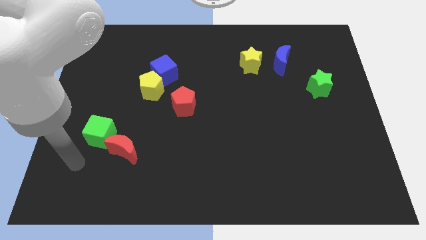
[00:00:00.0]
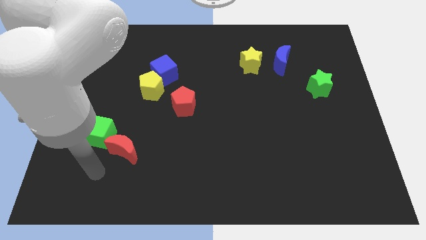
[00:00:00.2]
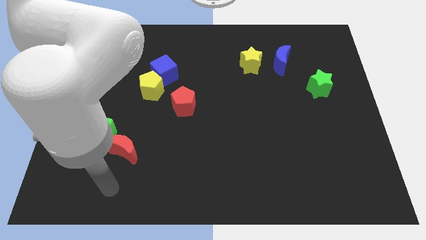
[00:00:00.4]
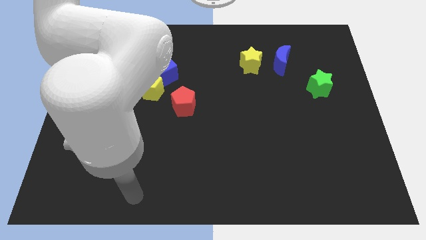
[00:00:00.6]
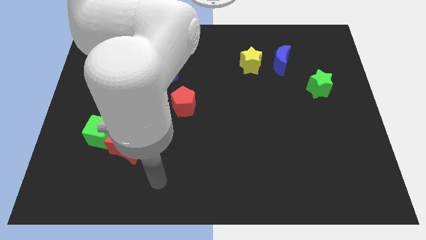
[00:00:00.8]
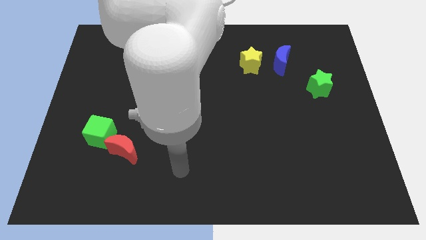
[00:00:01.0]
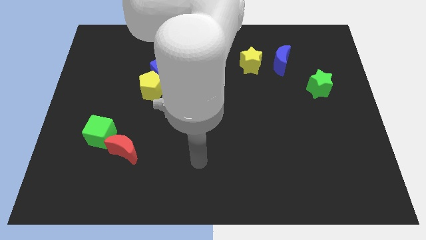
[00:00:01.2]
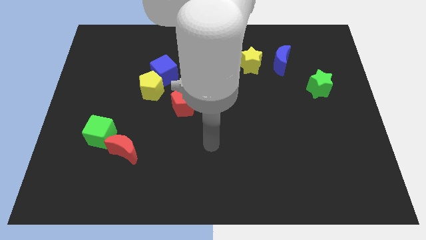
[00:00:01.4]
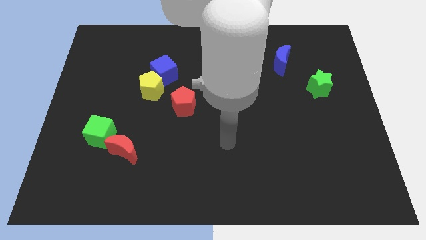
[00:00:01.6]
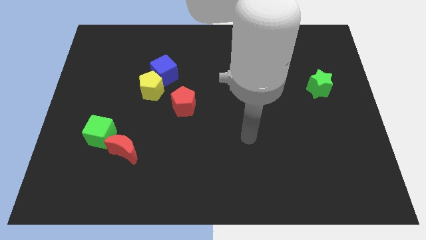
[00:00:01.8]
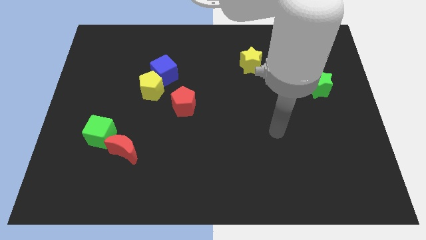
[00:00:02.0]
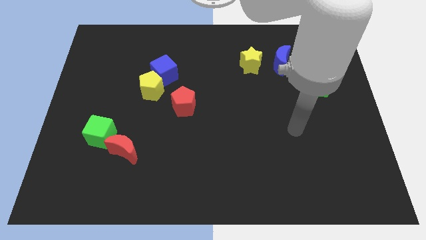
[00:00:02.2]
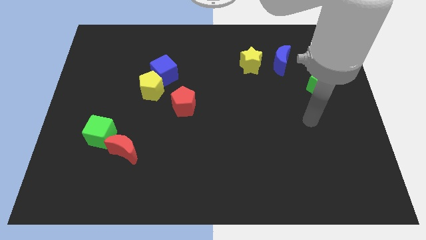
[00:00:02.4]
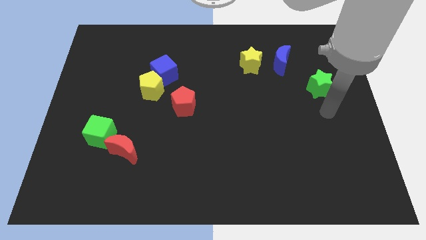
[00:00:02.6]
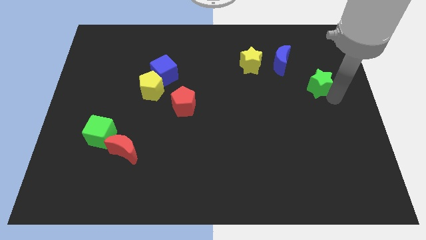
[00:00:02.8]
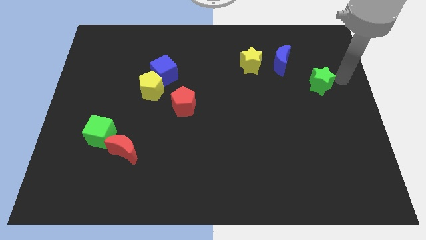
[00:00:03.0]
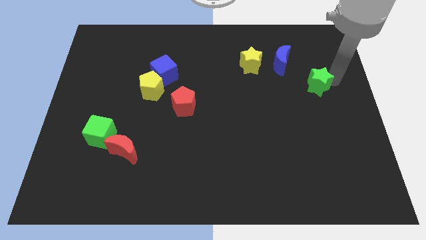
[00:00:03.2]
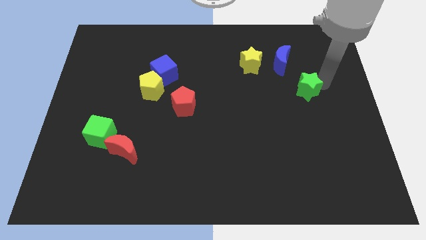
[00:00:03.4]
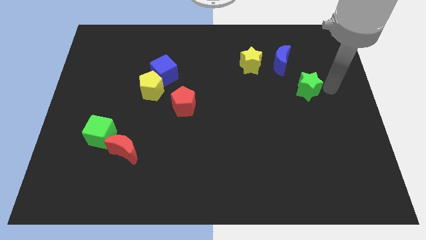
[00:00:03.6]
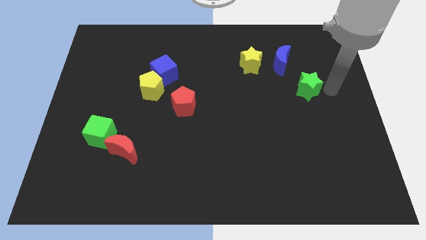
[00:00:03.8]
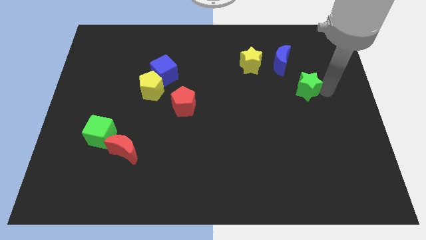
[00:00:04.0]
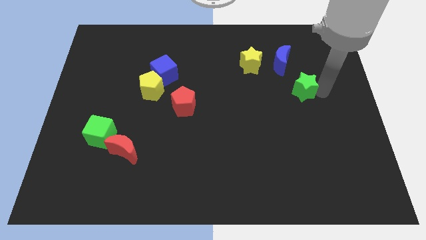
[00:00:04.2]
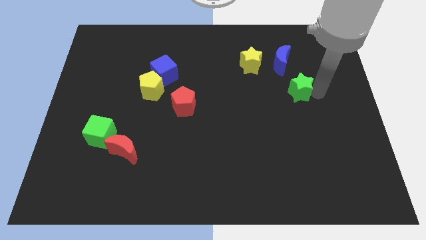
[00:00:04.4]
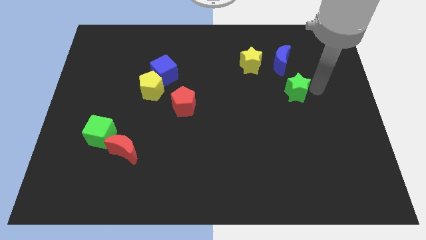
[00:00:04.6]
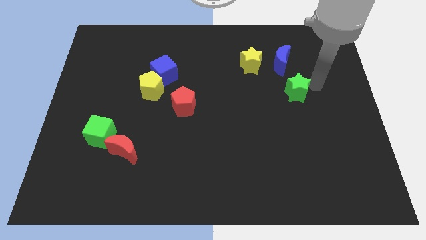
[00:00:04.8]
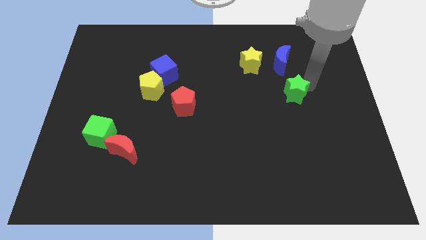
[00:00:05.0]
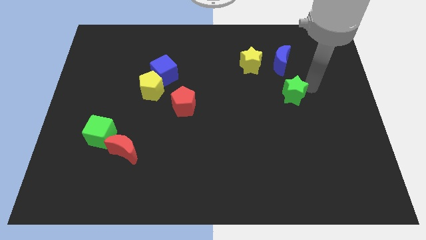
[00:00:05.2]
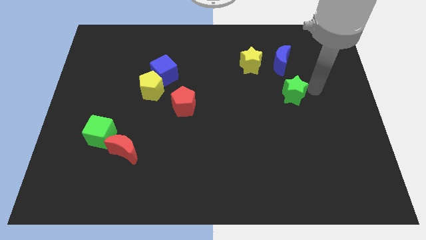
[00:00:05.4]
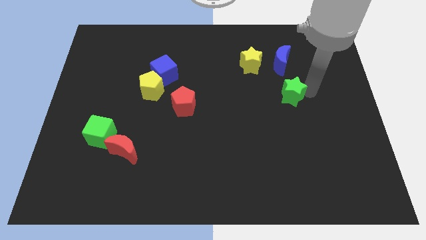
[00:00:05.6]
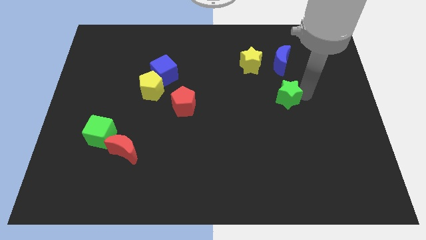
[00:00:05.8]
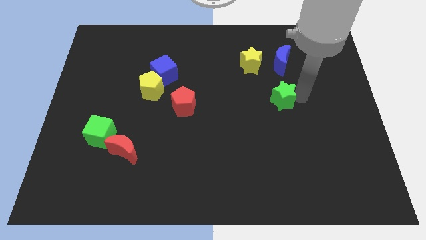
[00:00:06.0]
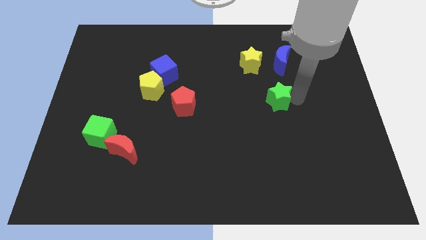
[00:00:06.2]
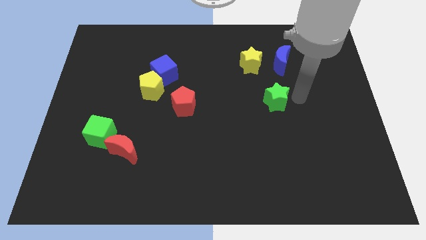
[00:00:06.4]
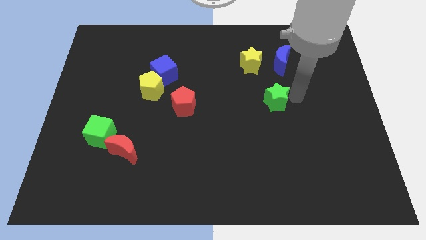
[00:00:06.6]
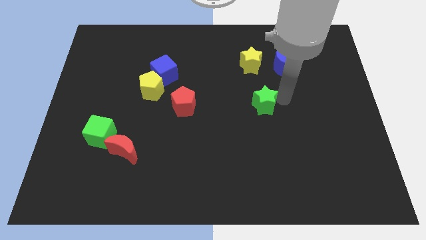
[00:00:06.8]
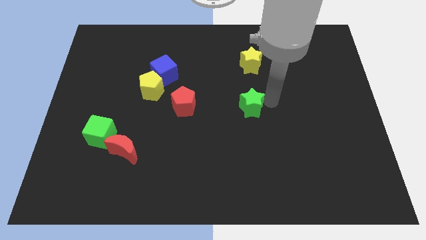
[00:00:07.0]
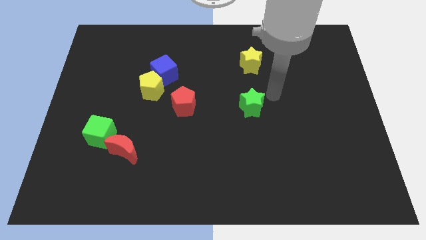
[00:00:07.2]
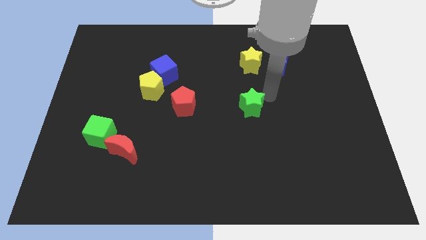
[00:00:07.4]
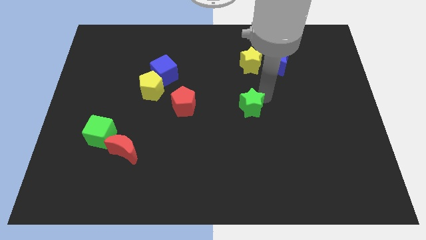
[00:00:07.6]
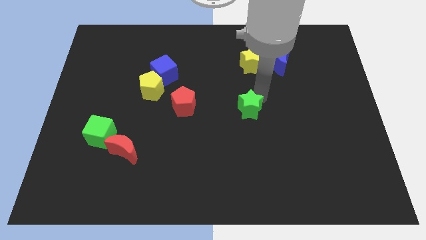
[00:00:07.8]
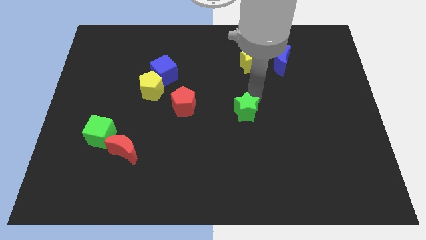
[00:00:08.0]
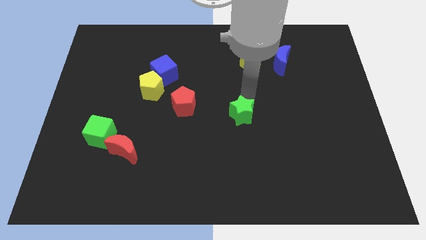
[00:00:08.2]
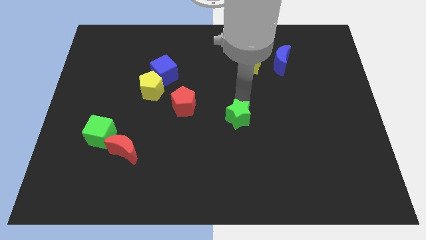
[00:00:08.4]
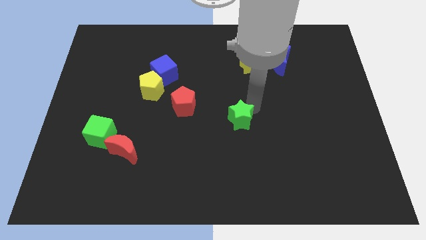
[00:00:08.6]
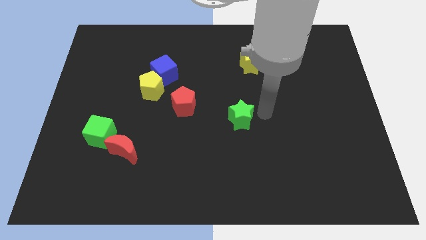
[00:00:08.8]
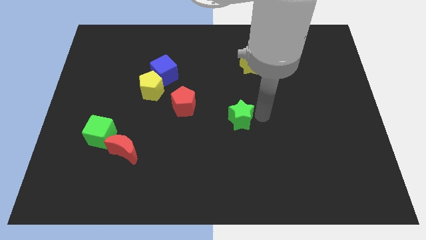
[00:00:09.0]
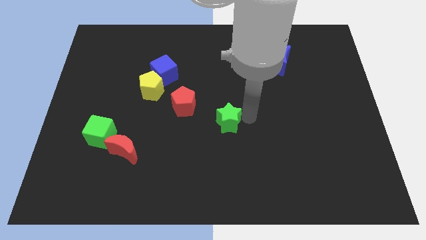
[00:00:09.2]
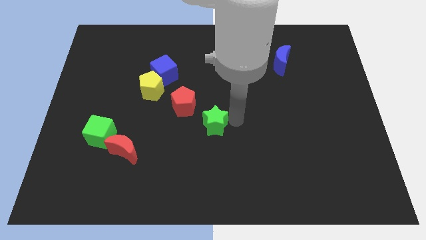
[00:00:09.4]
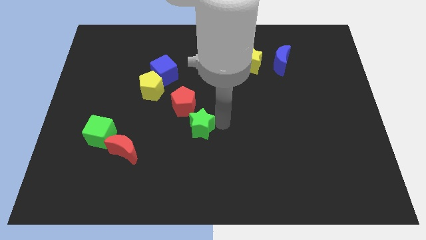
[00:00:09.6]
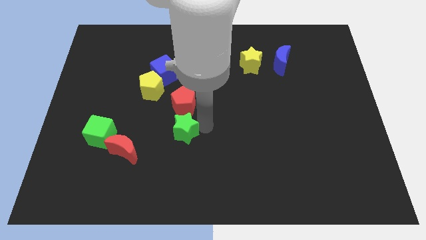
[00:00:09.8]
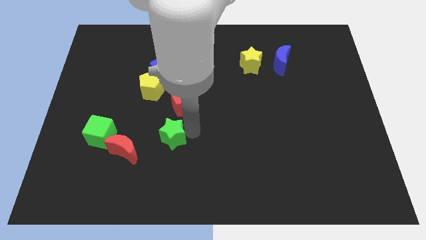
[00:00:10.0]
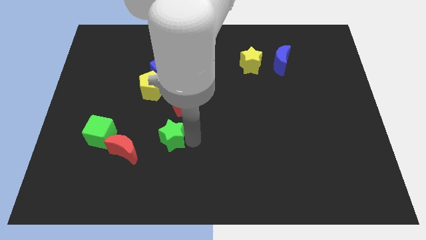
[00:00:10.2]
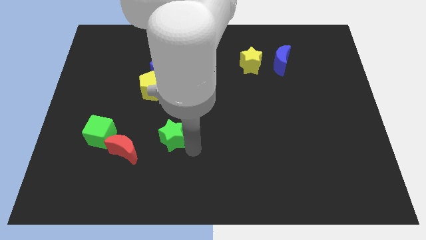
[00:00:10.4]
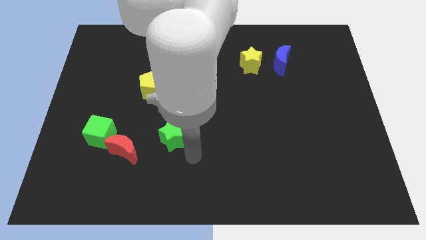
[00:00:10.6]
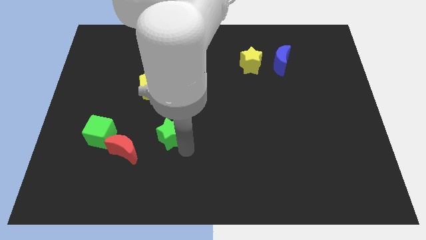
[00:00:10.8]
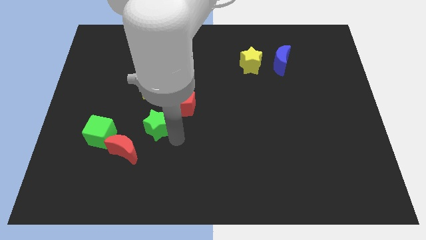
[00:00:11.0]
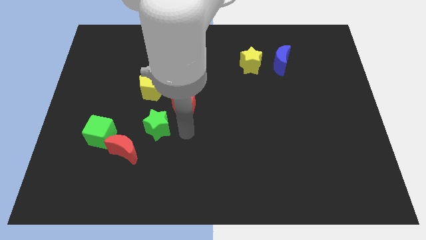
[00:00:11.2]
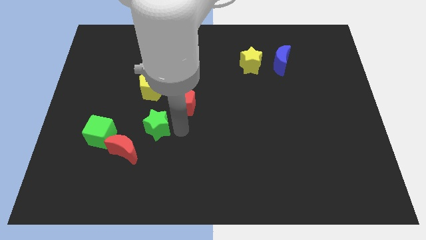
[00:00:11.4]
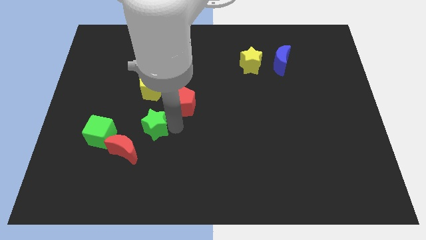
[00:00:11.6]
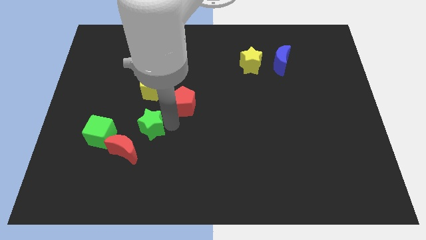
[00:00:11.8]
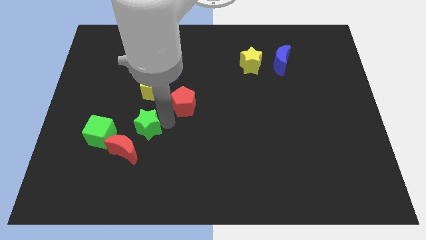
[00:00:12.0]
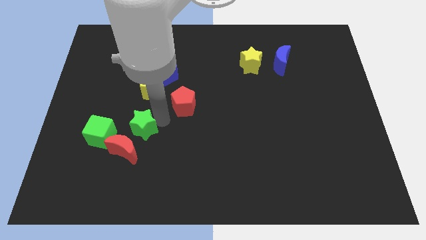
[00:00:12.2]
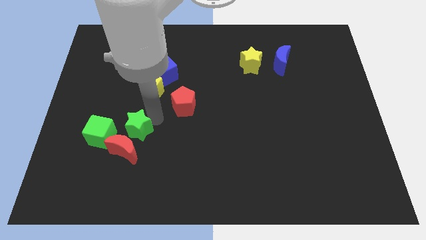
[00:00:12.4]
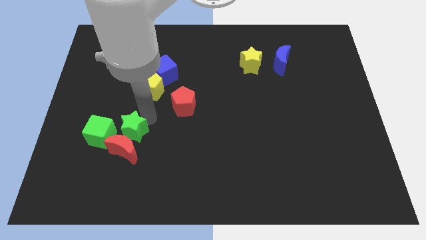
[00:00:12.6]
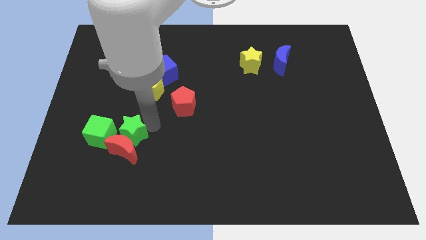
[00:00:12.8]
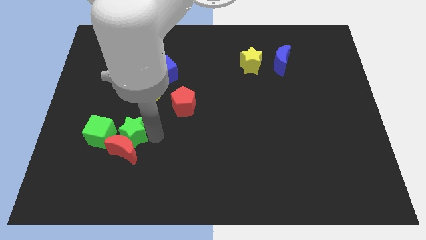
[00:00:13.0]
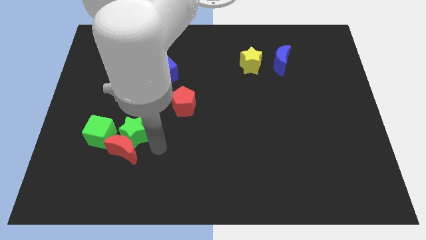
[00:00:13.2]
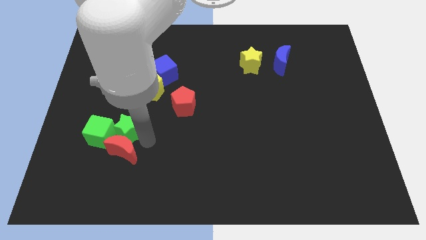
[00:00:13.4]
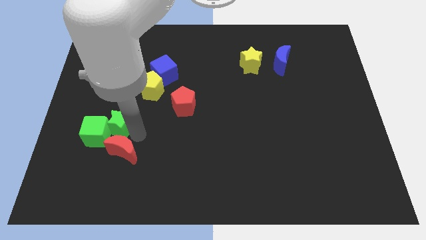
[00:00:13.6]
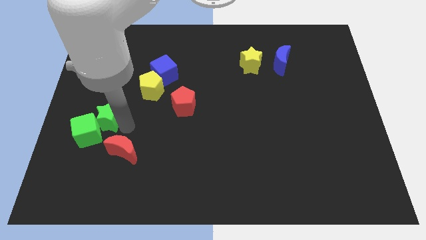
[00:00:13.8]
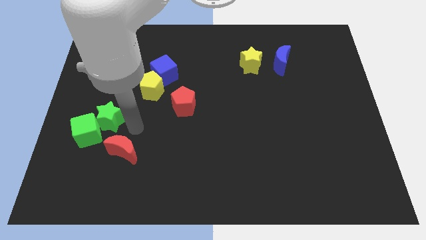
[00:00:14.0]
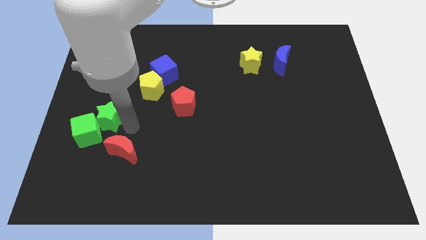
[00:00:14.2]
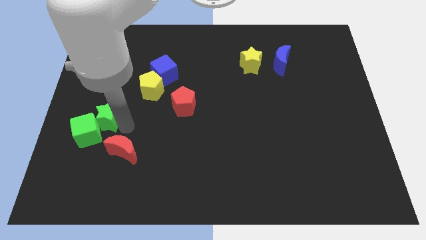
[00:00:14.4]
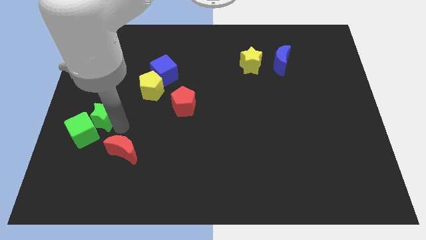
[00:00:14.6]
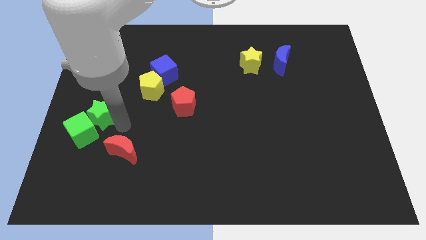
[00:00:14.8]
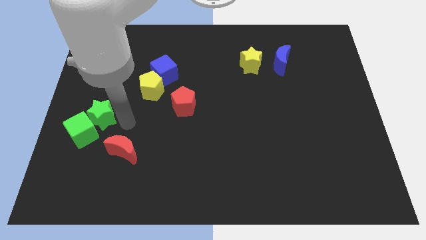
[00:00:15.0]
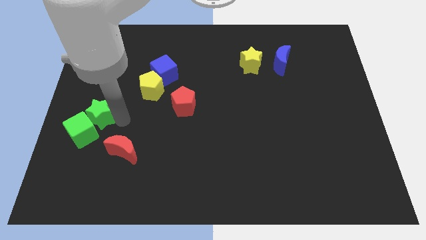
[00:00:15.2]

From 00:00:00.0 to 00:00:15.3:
push the green star to the left side of the board
